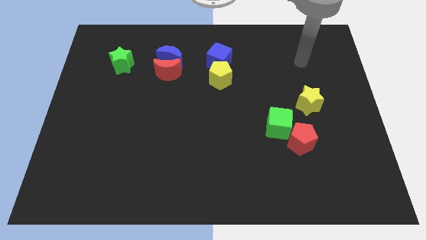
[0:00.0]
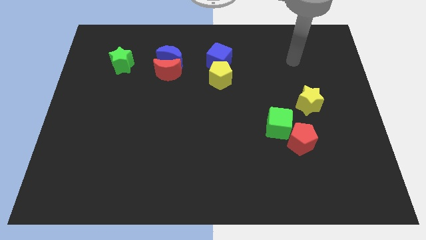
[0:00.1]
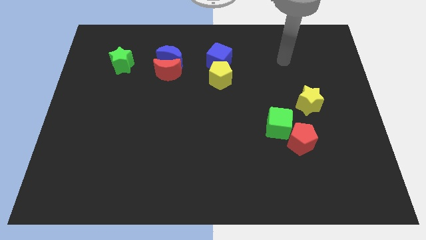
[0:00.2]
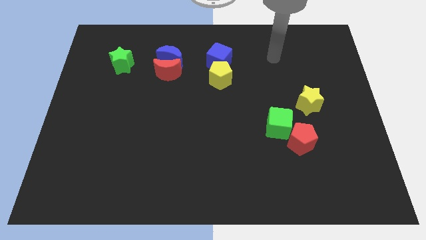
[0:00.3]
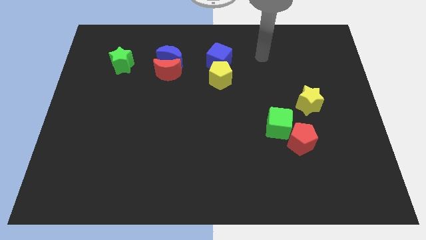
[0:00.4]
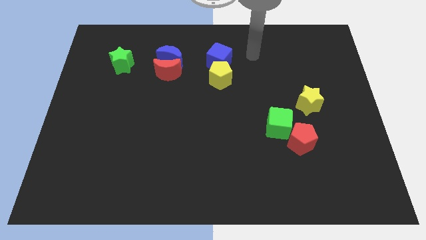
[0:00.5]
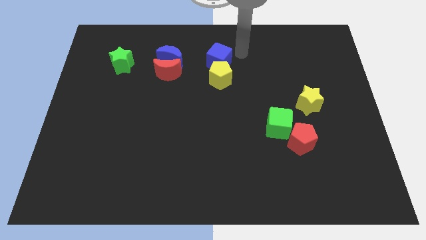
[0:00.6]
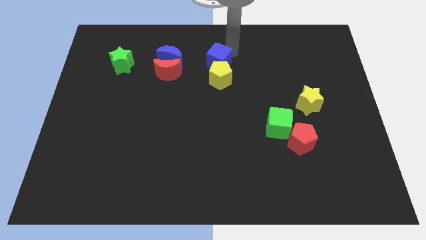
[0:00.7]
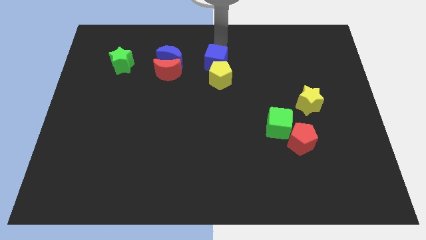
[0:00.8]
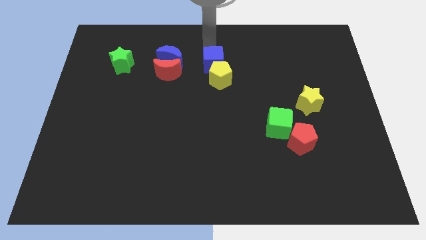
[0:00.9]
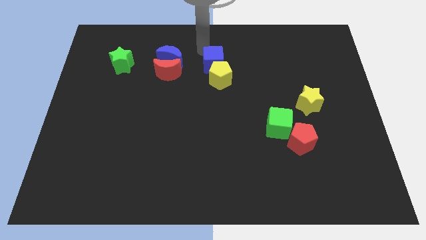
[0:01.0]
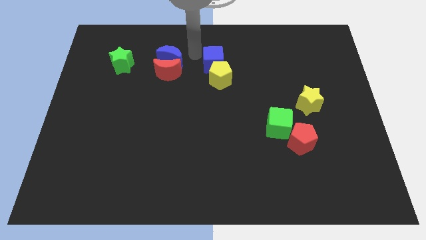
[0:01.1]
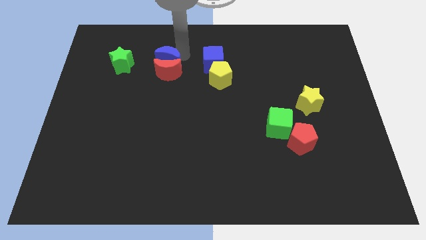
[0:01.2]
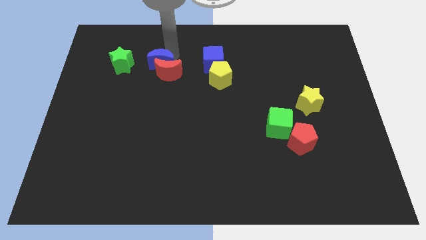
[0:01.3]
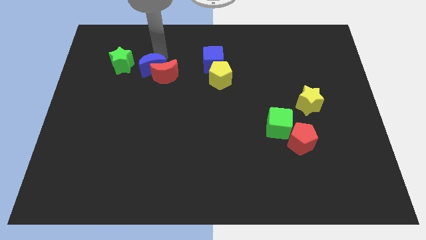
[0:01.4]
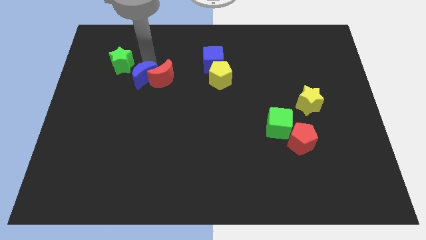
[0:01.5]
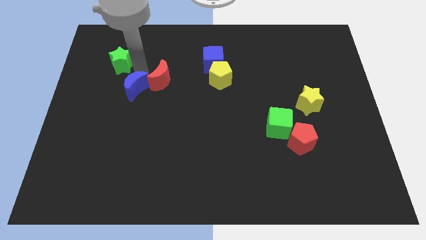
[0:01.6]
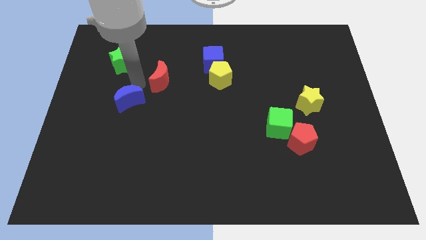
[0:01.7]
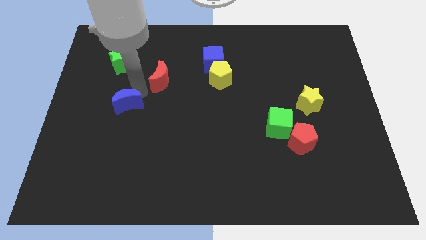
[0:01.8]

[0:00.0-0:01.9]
separate the red moon from the blue moon

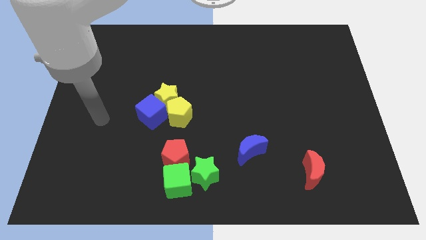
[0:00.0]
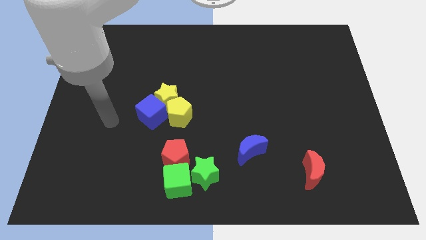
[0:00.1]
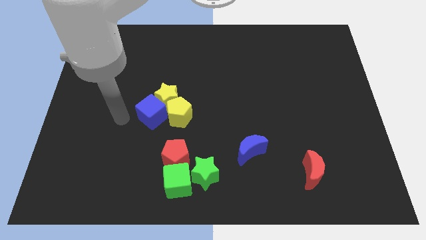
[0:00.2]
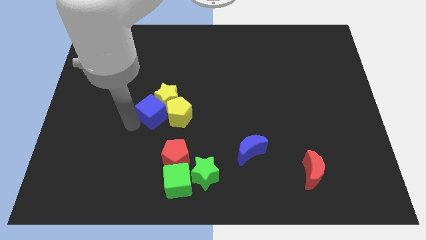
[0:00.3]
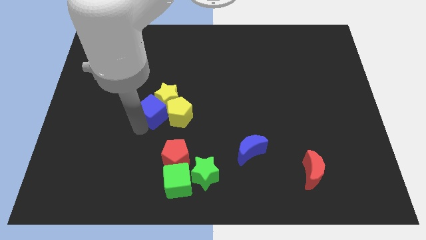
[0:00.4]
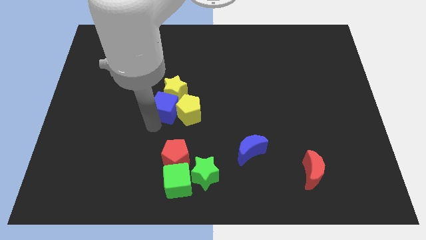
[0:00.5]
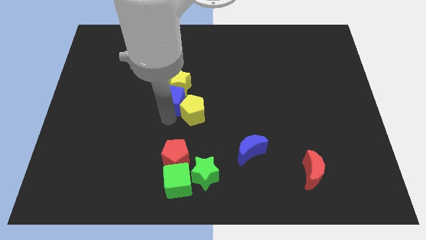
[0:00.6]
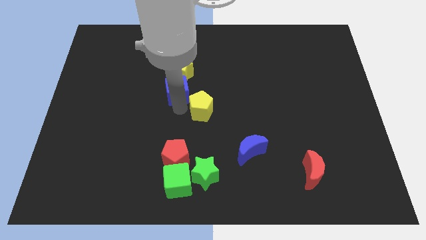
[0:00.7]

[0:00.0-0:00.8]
move the yellow star away from the yellow pentagon and blue cube

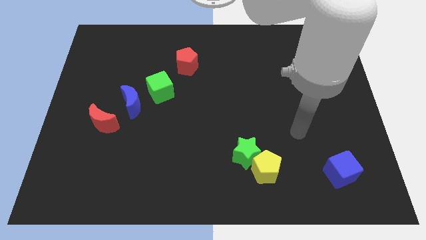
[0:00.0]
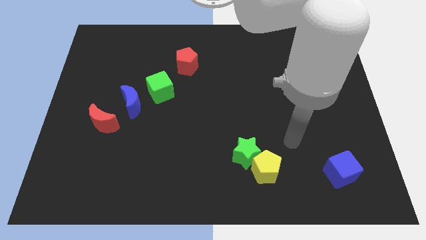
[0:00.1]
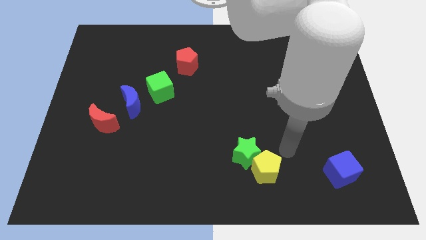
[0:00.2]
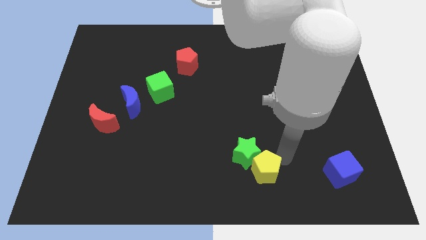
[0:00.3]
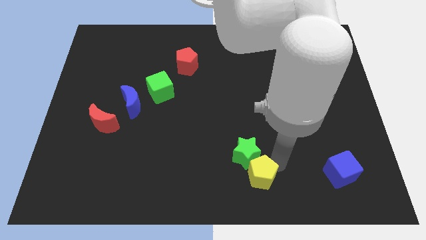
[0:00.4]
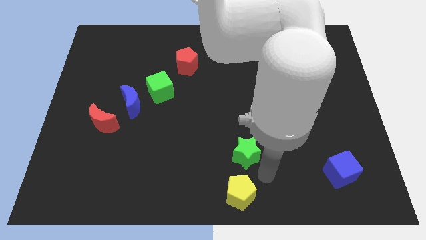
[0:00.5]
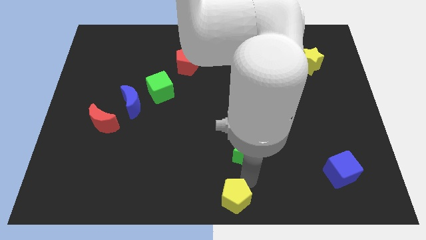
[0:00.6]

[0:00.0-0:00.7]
separate the green star from the yellow pentagon

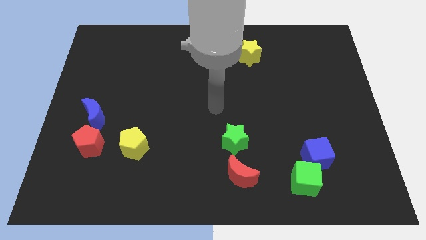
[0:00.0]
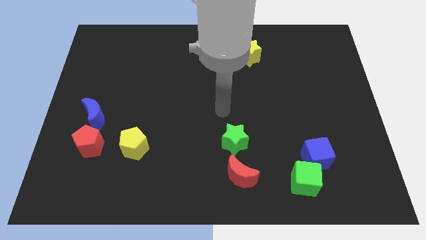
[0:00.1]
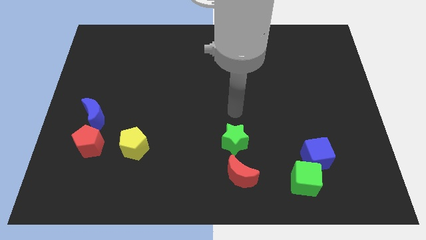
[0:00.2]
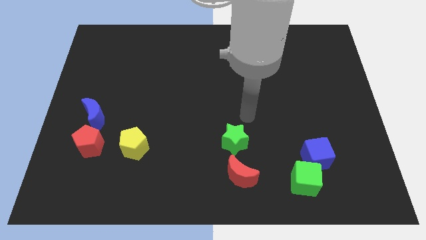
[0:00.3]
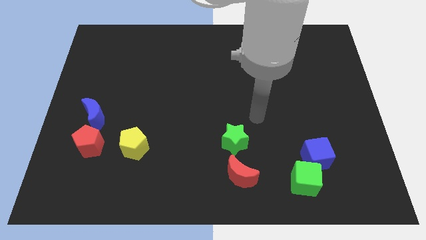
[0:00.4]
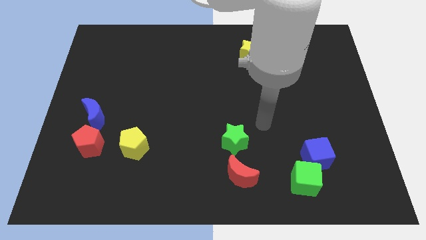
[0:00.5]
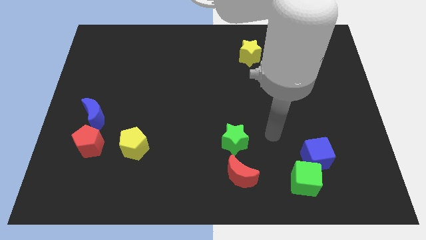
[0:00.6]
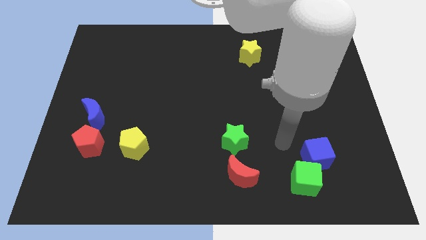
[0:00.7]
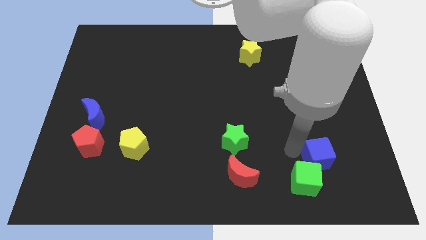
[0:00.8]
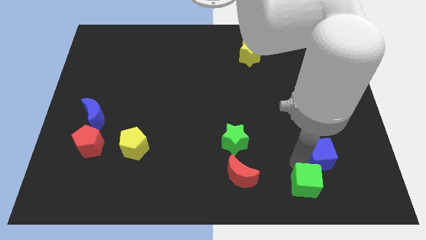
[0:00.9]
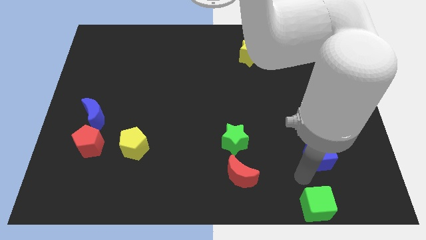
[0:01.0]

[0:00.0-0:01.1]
pull the blue cube apart from the green cube

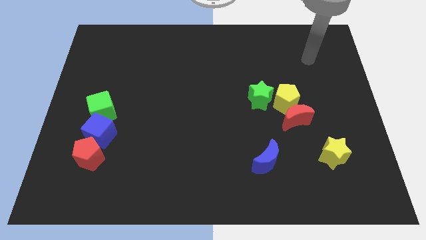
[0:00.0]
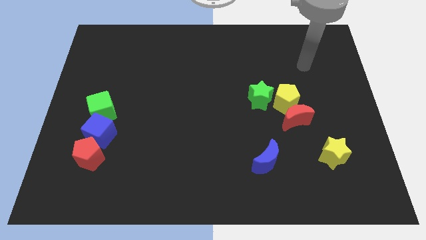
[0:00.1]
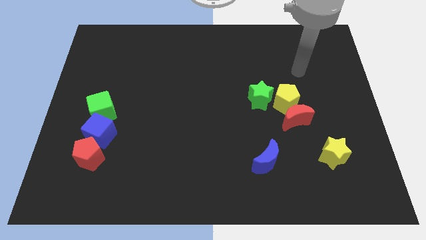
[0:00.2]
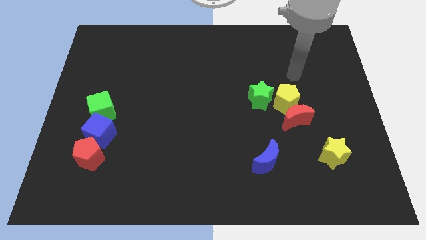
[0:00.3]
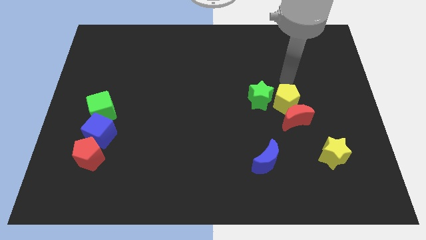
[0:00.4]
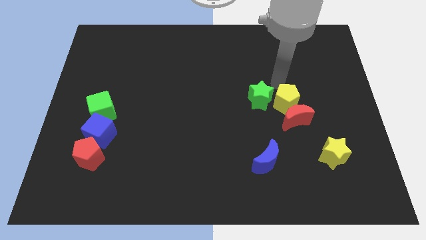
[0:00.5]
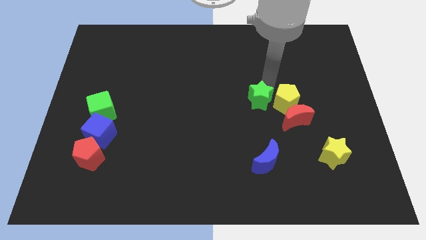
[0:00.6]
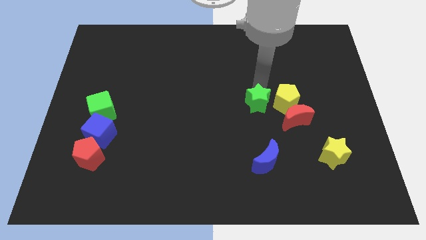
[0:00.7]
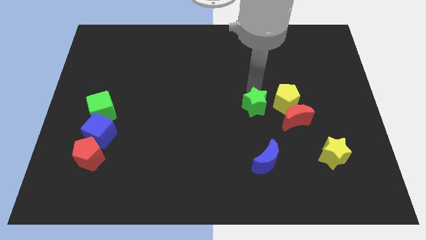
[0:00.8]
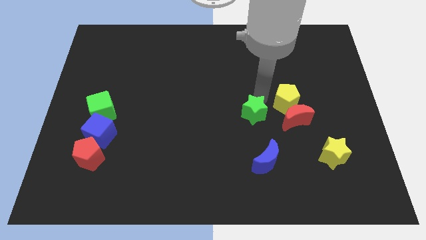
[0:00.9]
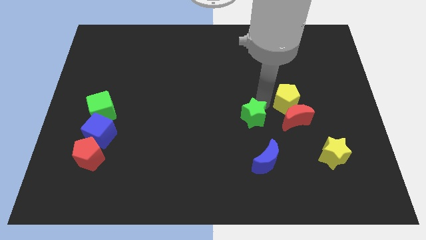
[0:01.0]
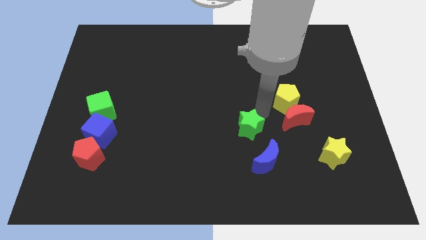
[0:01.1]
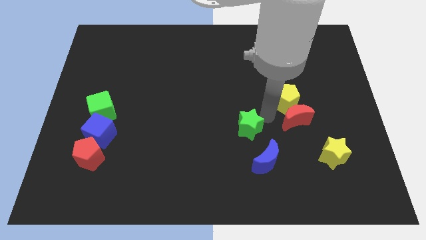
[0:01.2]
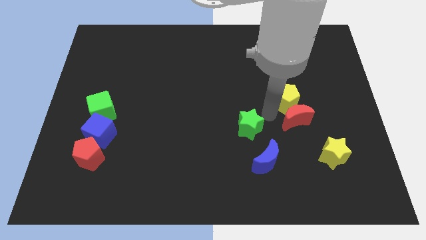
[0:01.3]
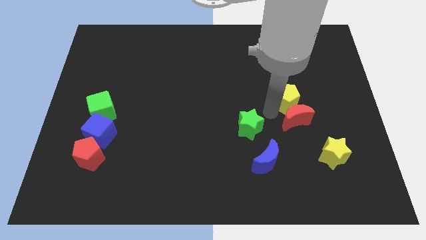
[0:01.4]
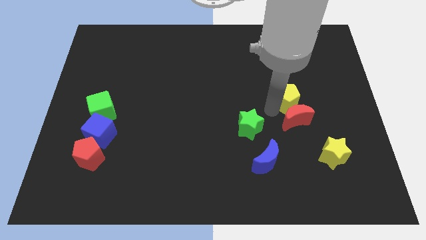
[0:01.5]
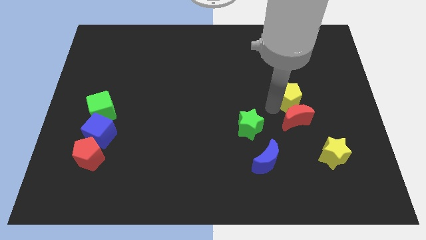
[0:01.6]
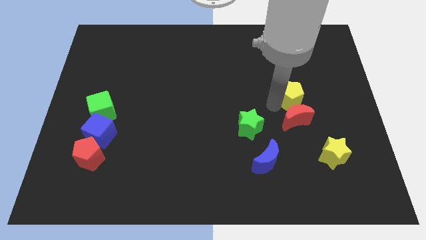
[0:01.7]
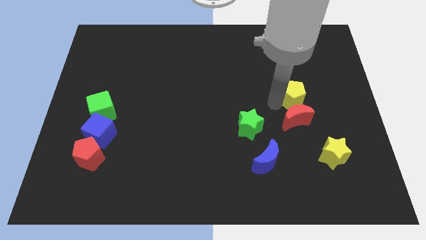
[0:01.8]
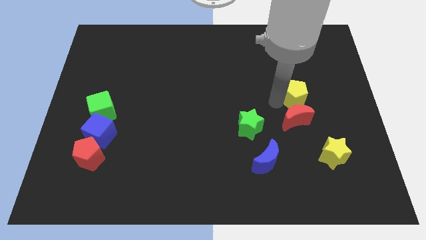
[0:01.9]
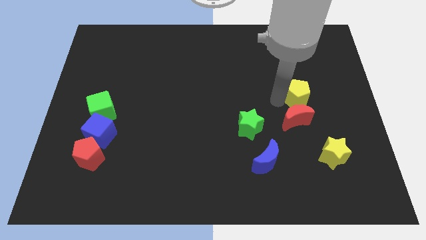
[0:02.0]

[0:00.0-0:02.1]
pull the yellow pentagon apart from the red moon and green star

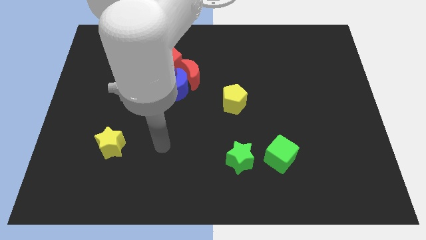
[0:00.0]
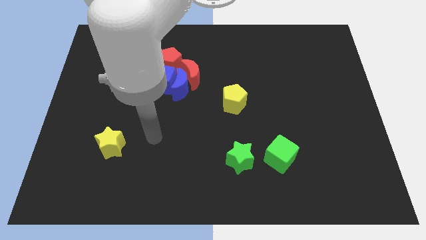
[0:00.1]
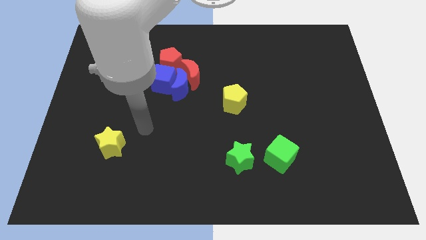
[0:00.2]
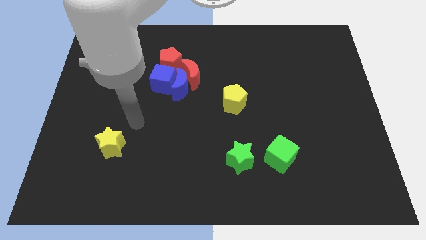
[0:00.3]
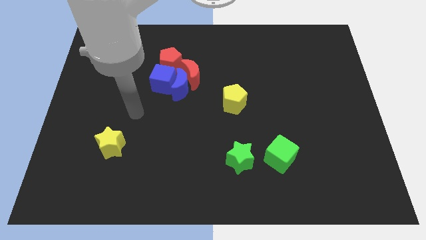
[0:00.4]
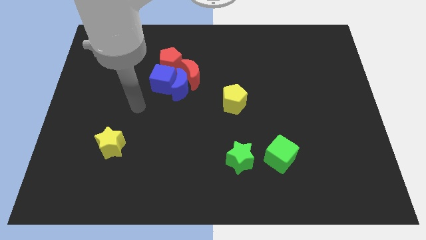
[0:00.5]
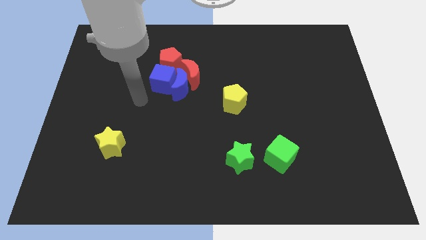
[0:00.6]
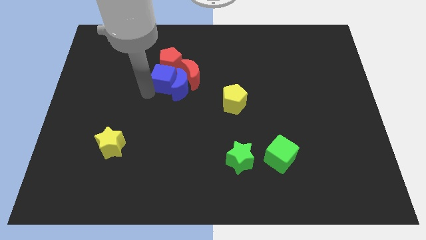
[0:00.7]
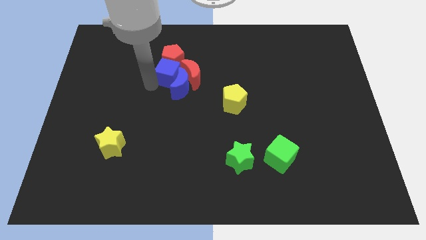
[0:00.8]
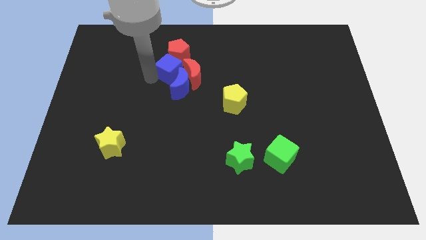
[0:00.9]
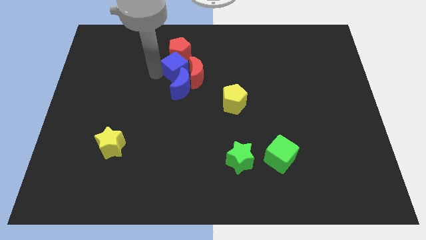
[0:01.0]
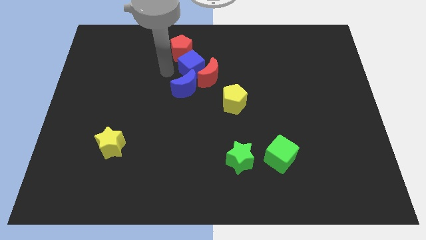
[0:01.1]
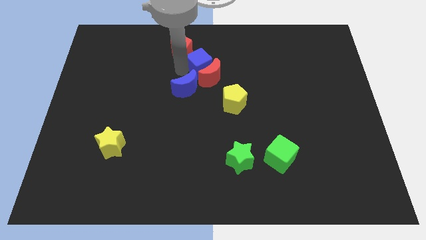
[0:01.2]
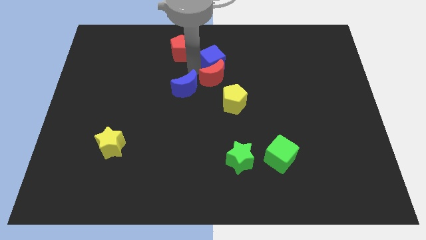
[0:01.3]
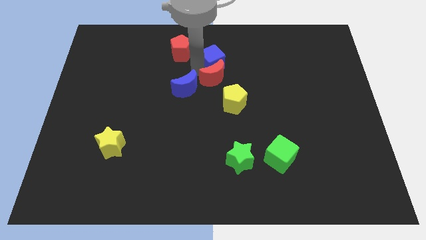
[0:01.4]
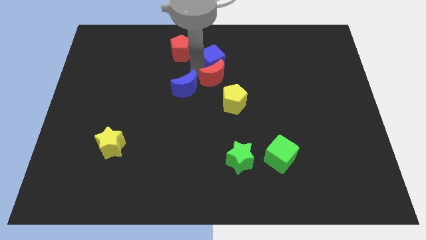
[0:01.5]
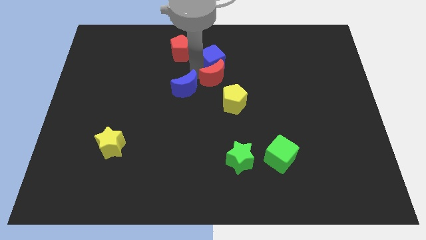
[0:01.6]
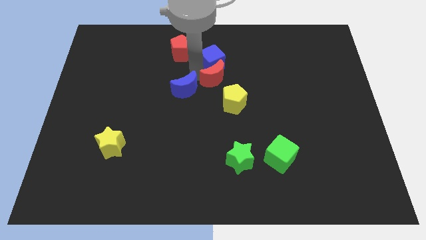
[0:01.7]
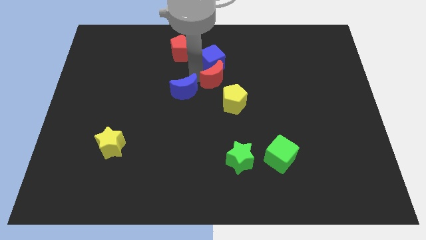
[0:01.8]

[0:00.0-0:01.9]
separate the blue moon from the group of blocks

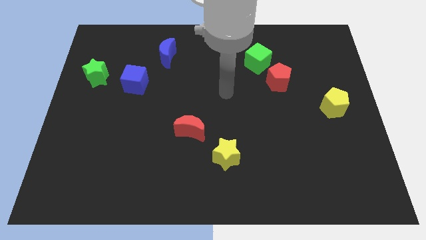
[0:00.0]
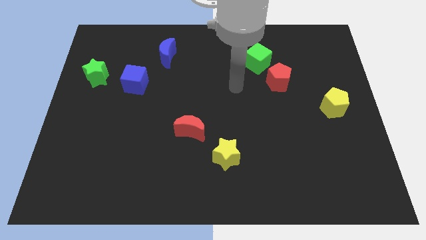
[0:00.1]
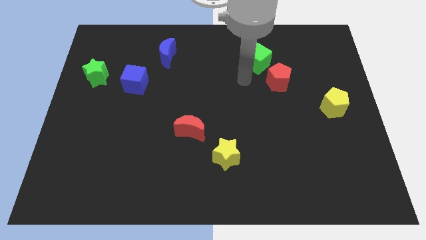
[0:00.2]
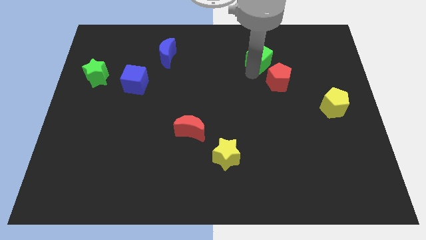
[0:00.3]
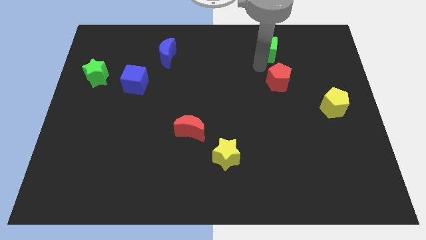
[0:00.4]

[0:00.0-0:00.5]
separate the red pentagon from the green cube

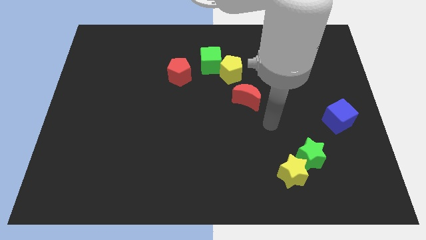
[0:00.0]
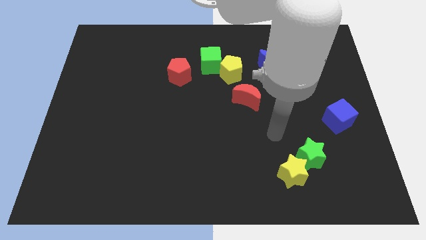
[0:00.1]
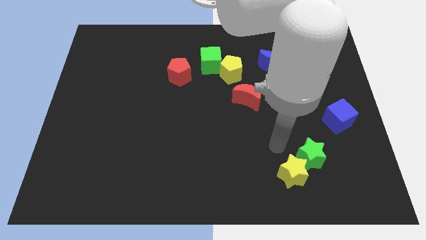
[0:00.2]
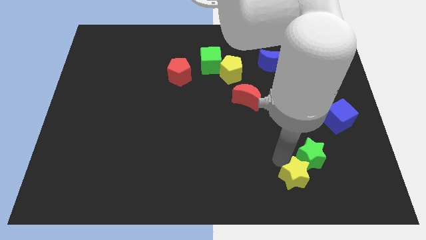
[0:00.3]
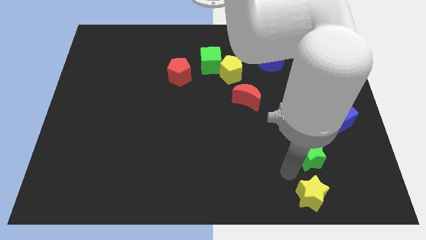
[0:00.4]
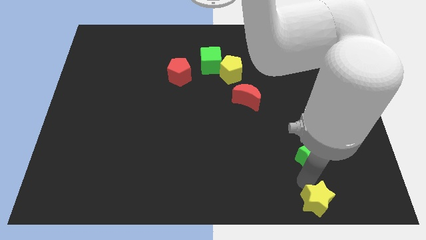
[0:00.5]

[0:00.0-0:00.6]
pull the green star apart from the yellow star
